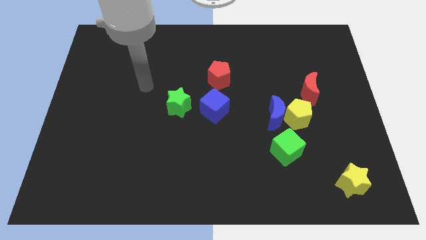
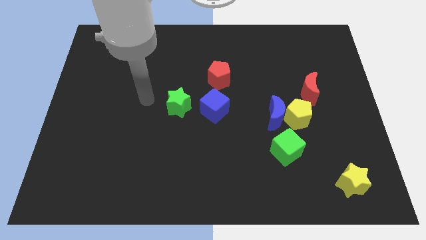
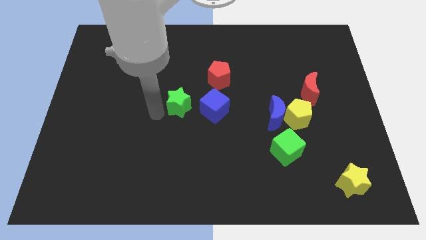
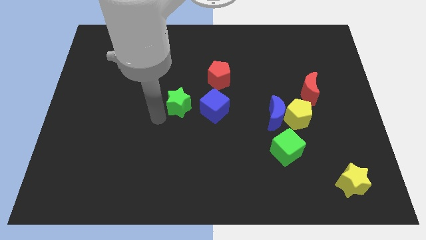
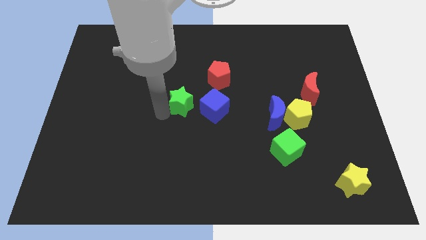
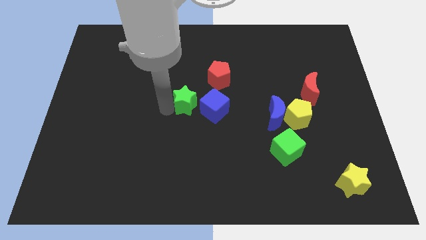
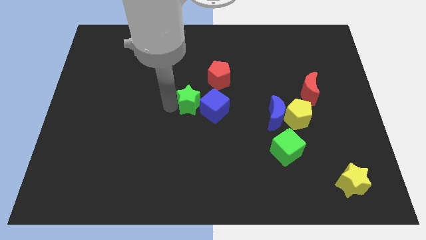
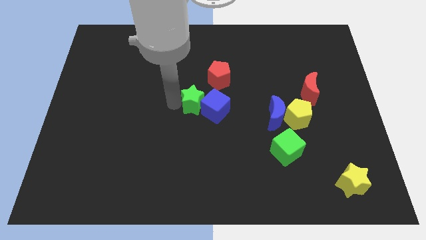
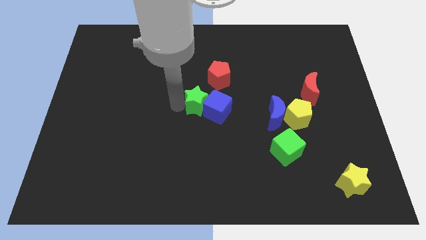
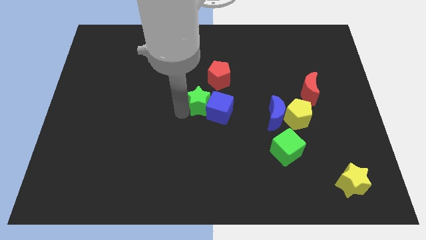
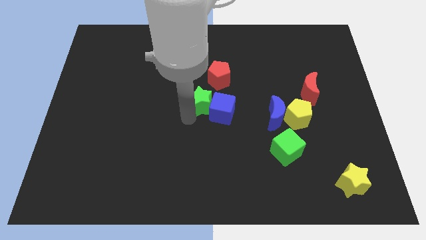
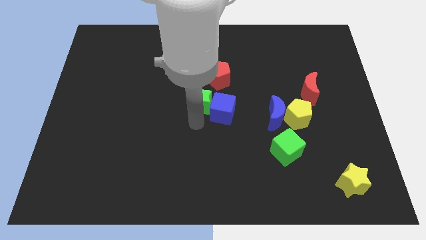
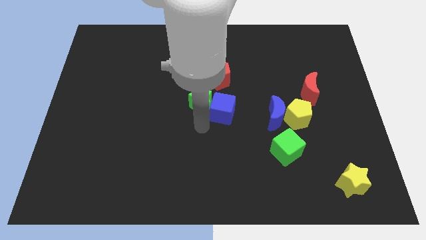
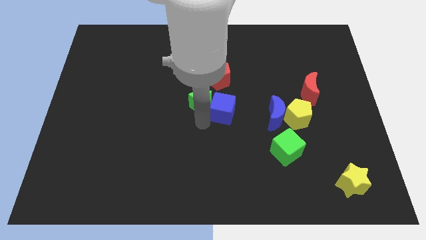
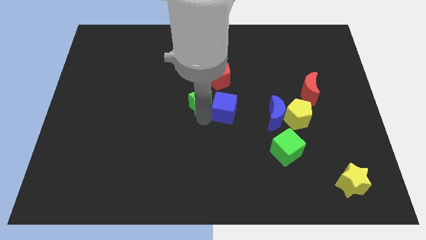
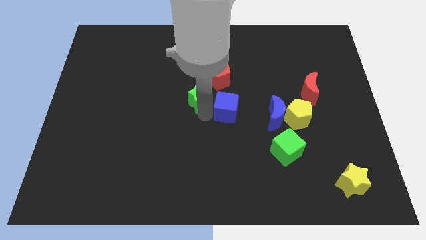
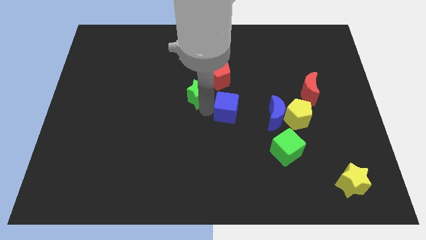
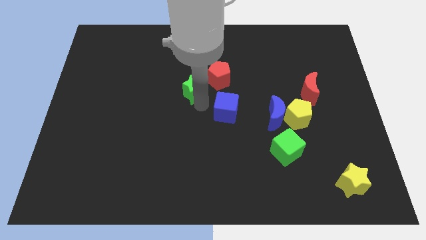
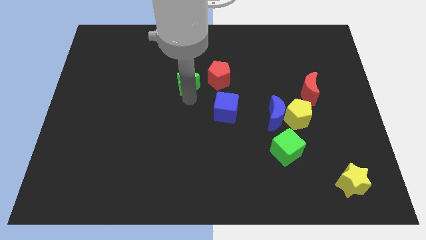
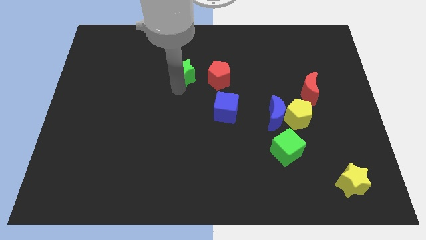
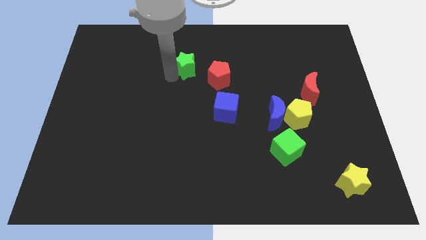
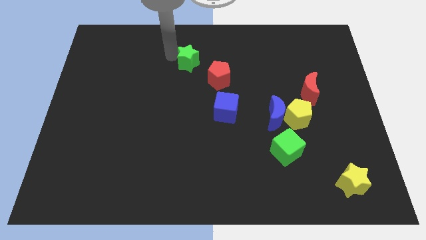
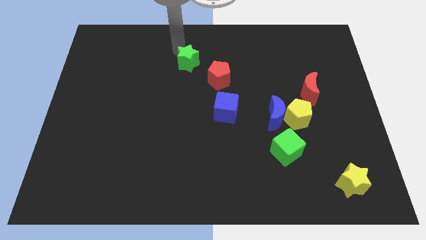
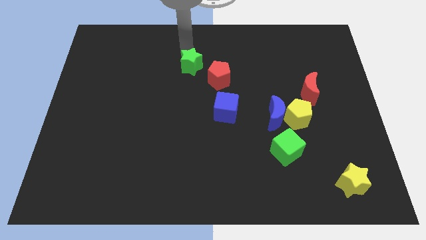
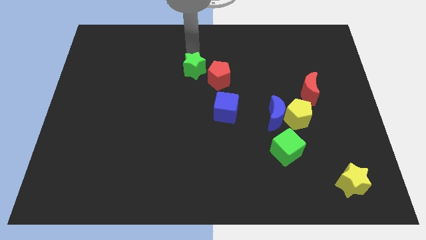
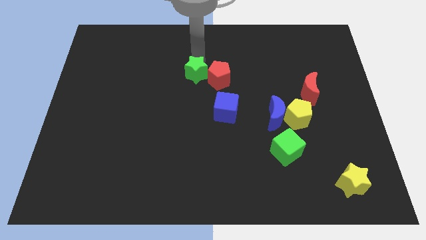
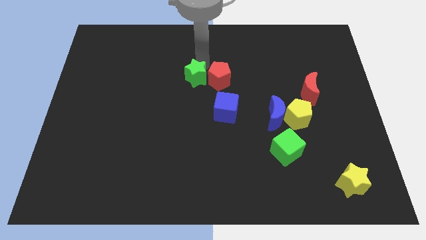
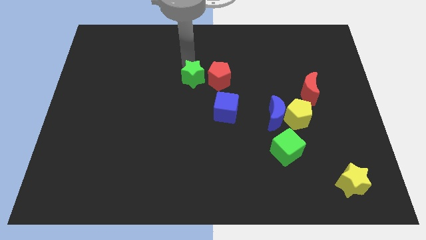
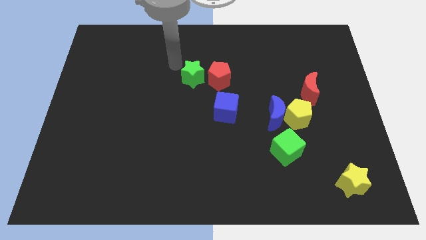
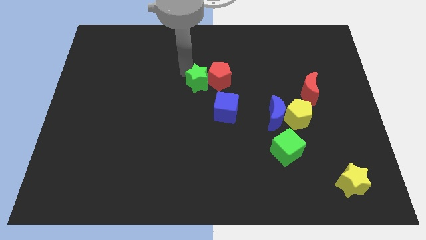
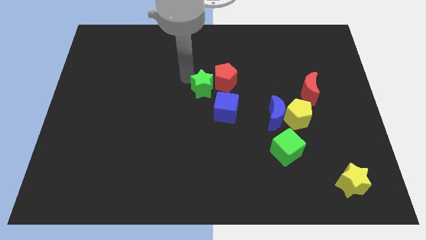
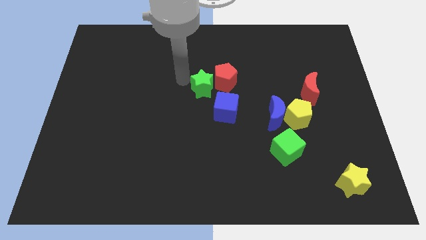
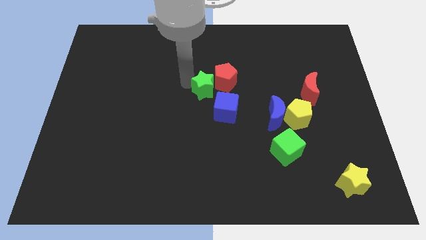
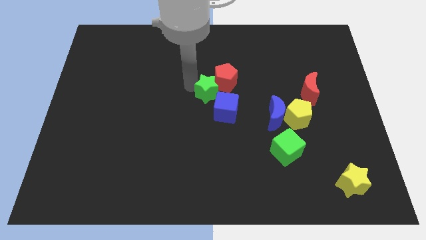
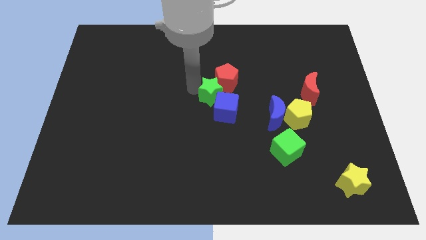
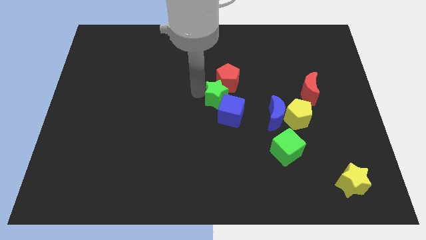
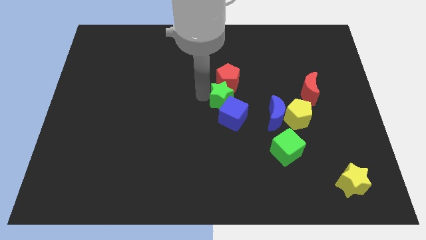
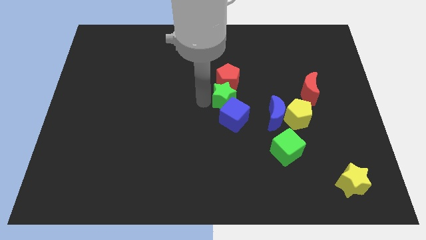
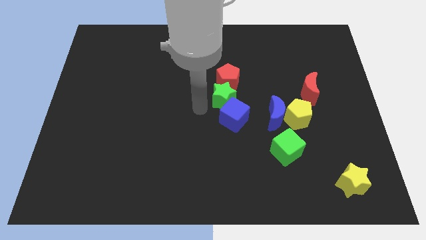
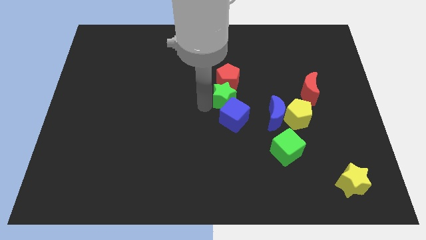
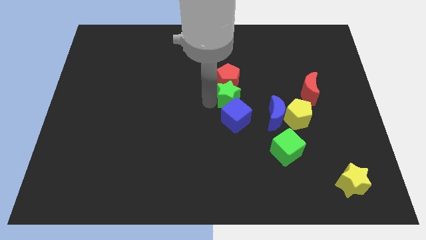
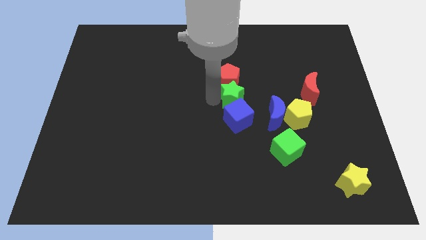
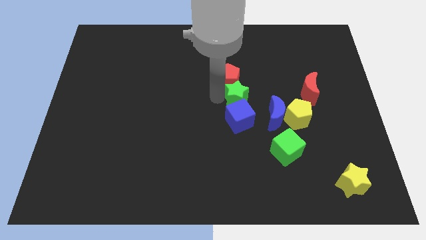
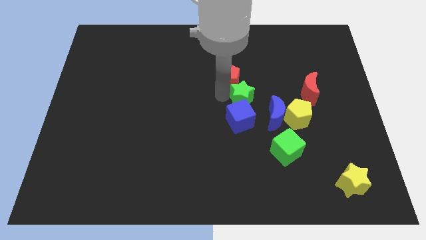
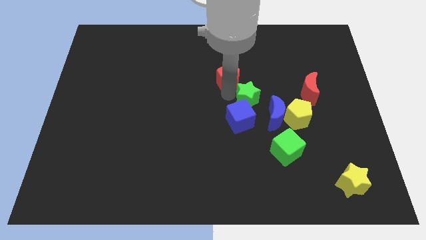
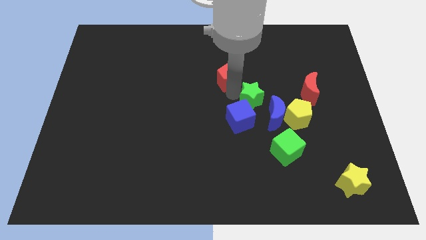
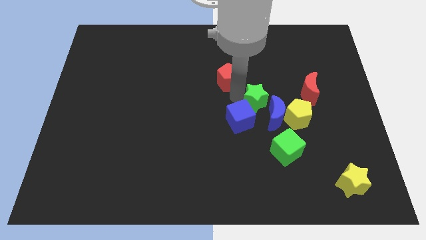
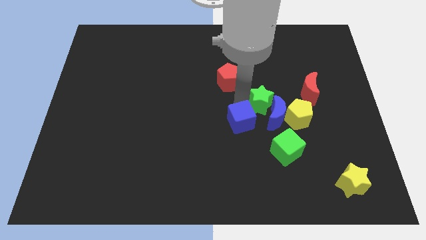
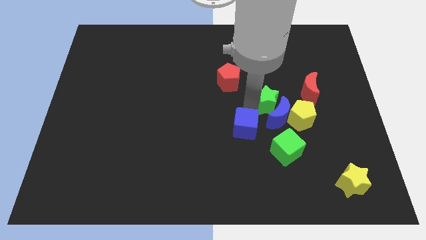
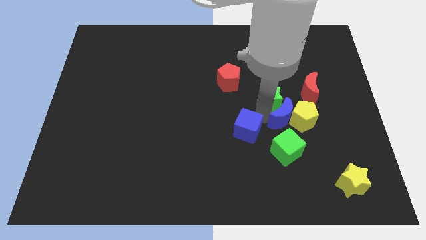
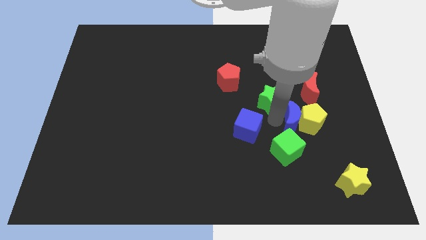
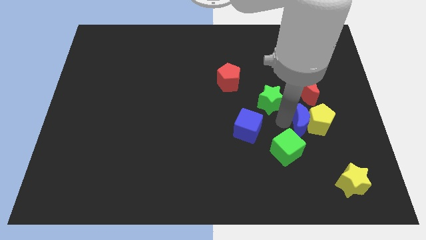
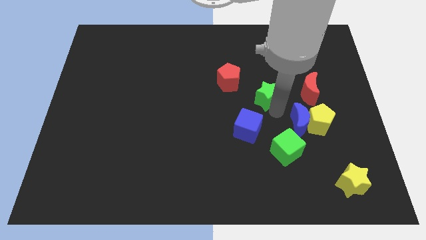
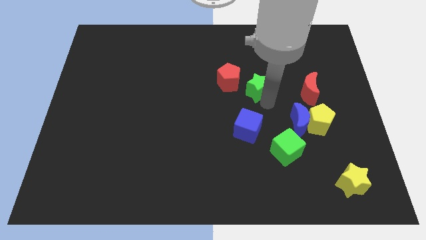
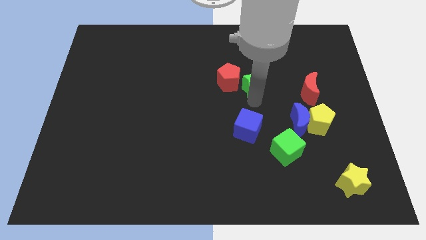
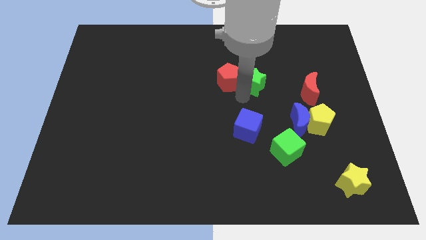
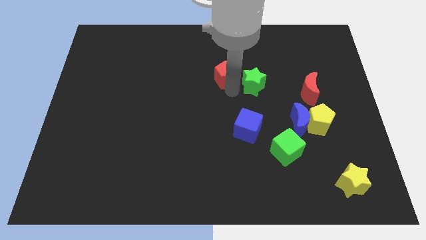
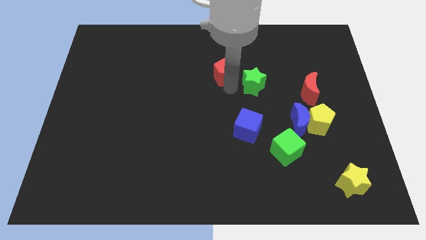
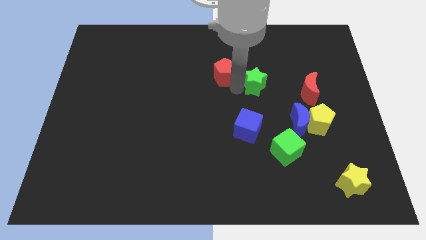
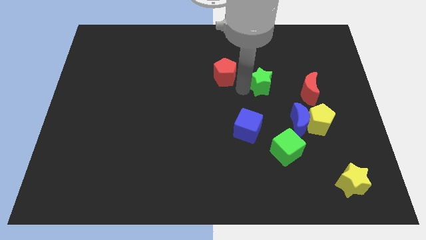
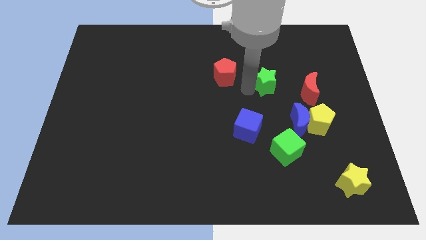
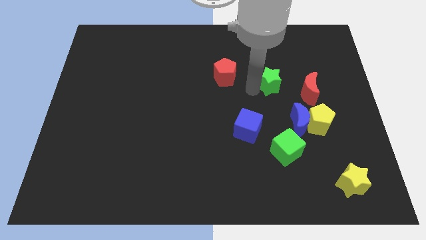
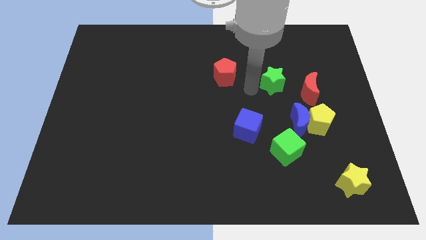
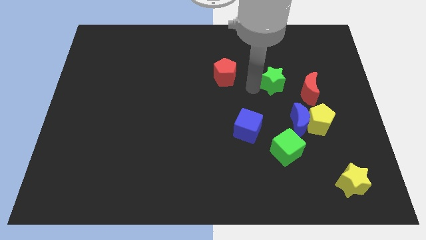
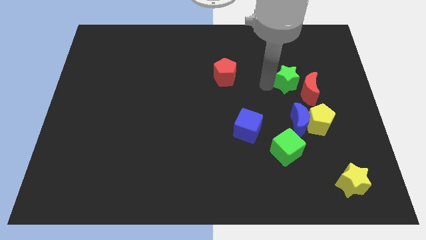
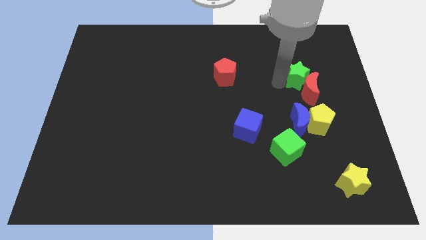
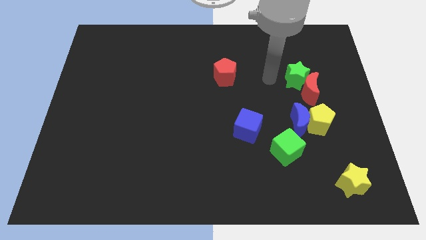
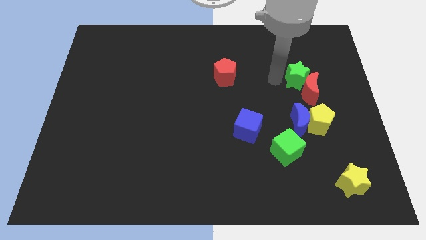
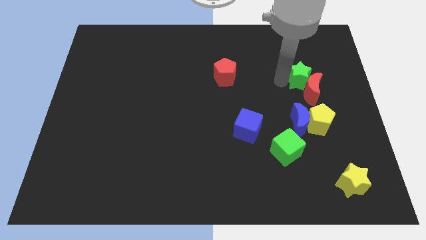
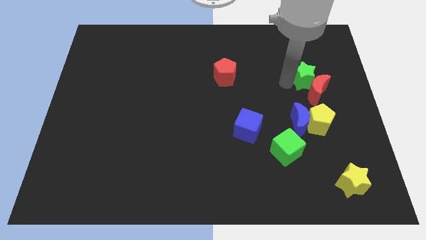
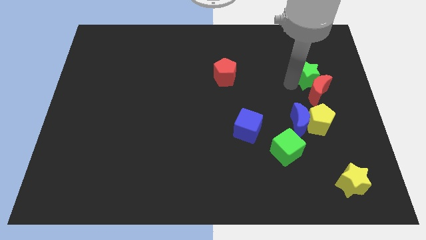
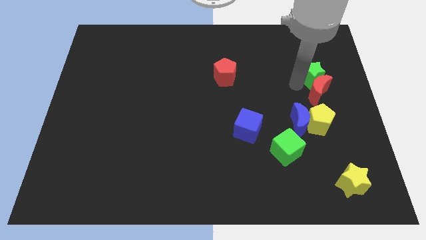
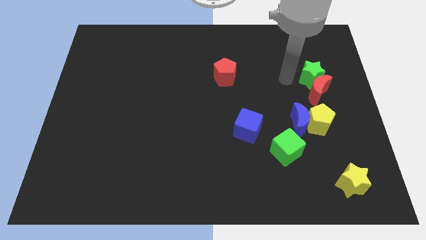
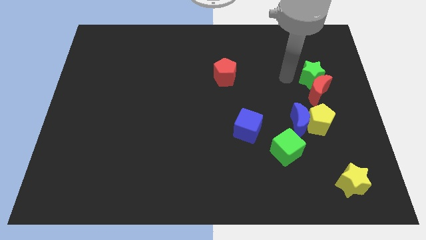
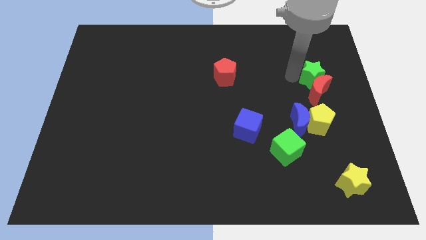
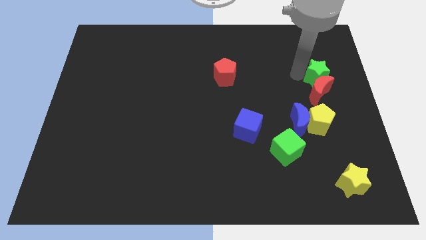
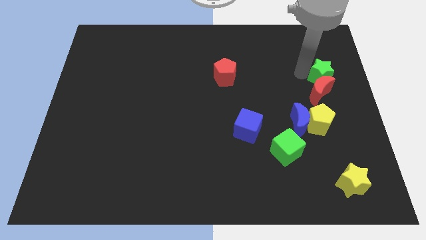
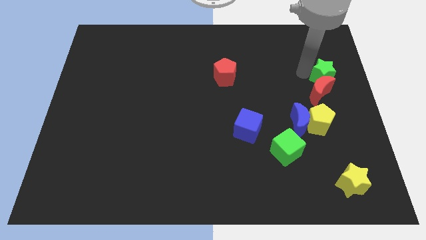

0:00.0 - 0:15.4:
move the green star to the right side of the board

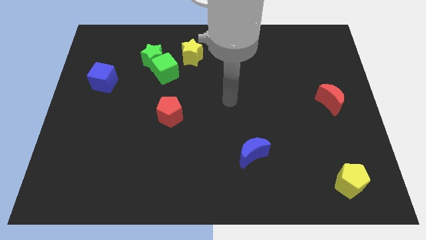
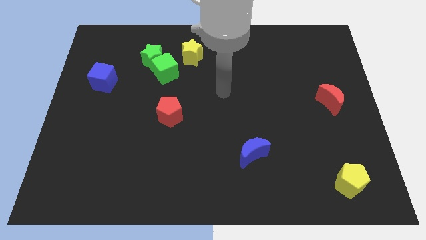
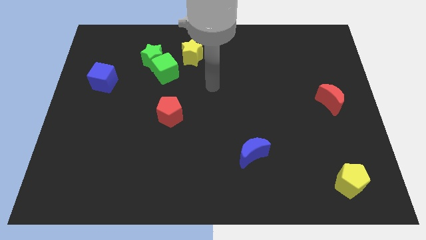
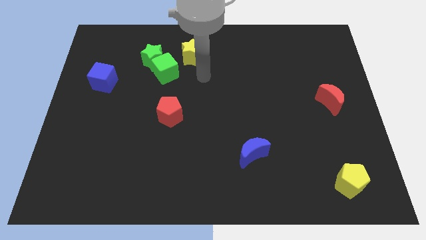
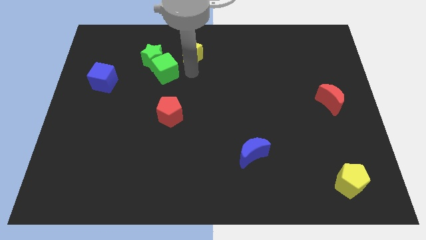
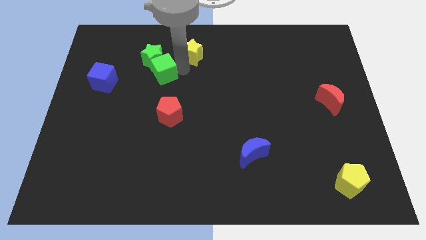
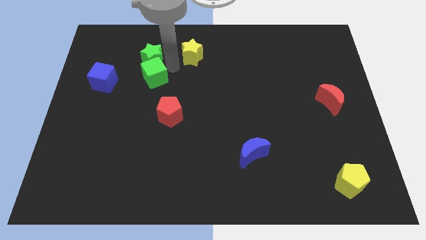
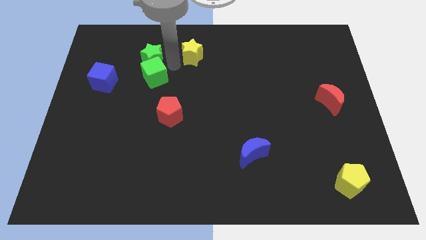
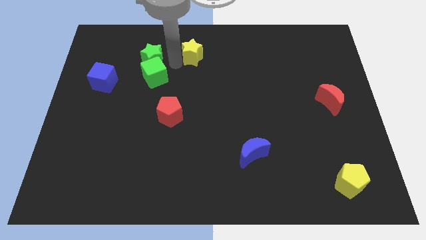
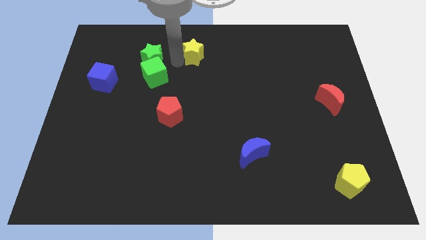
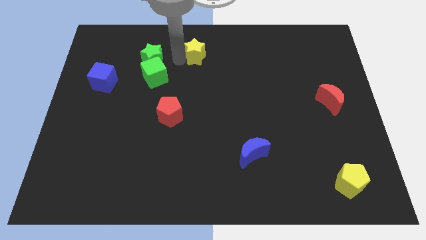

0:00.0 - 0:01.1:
put the yellow star to the top side
